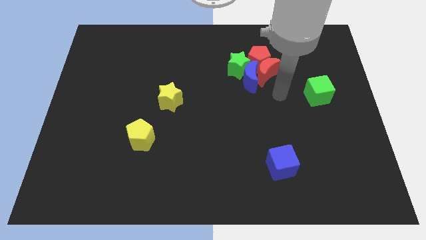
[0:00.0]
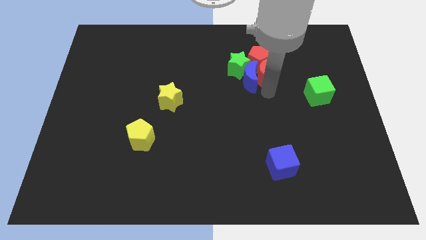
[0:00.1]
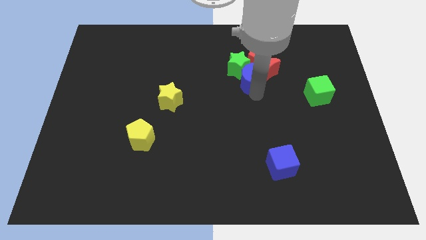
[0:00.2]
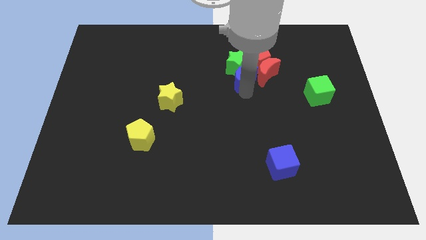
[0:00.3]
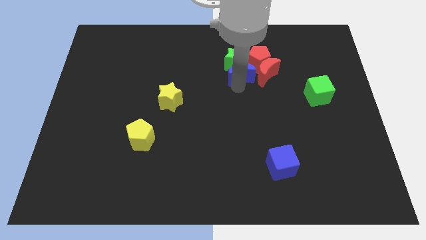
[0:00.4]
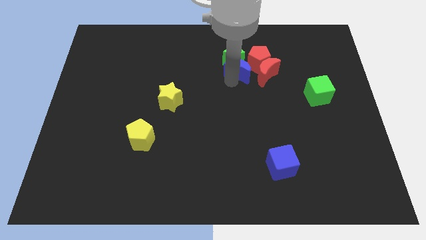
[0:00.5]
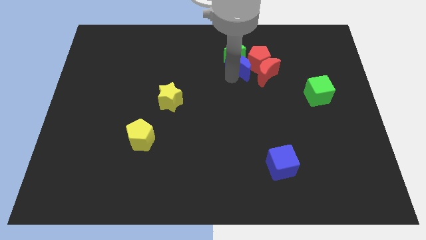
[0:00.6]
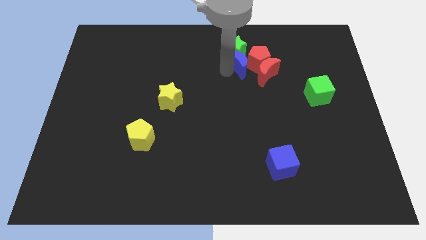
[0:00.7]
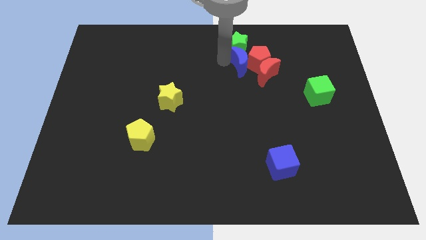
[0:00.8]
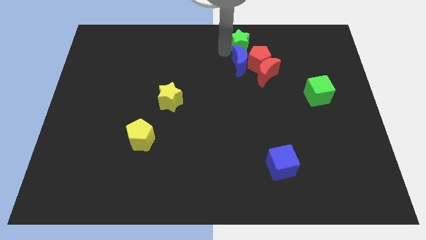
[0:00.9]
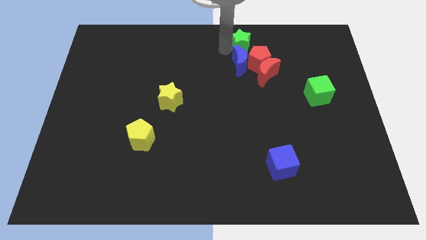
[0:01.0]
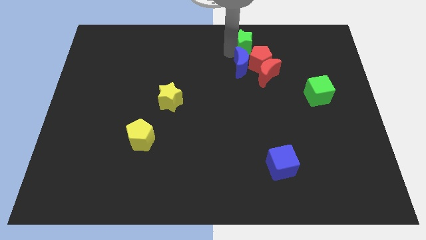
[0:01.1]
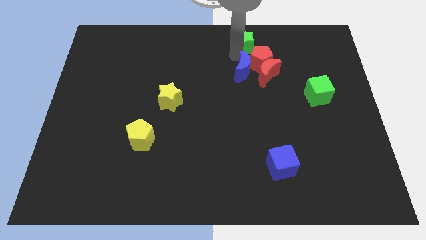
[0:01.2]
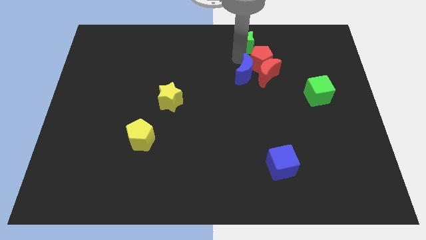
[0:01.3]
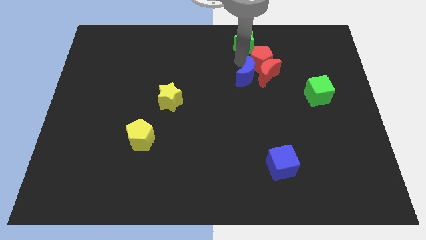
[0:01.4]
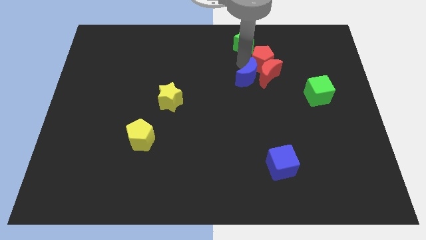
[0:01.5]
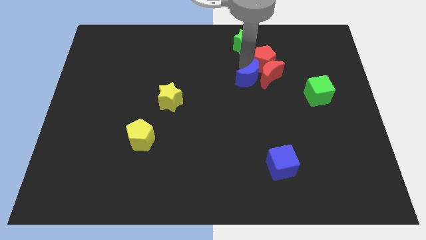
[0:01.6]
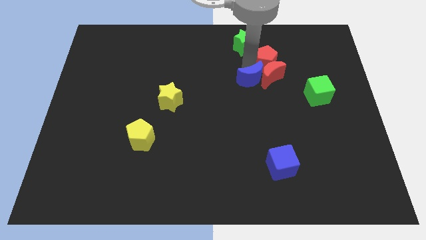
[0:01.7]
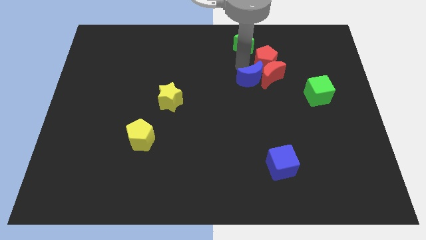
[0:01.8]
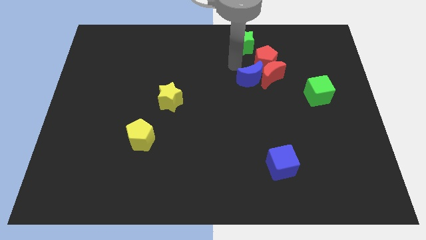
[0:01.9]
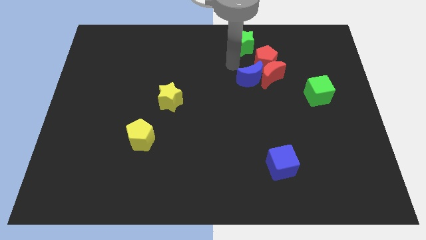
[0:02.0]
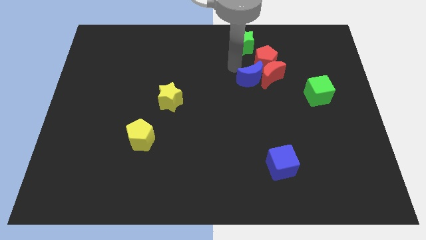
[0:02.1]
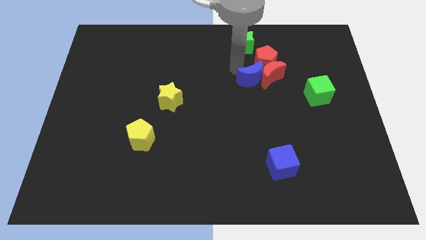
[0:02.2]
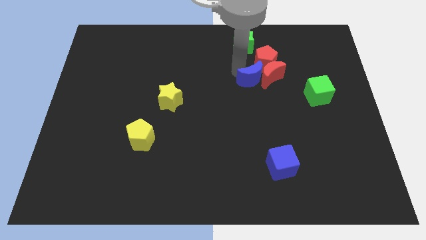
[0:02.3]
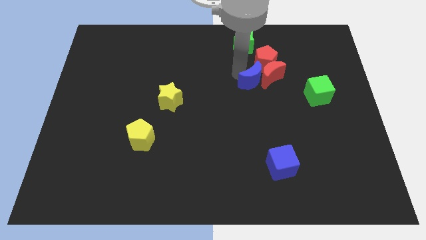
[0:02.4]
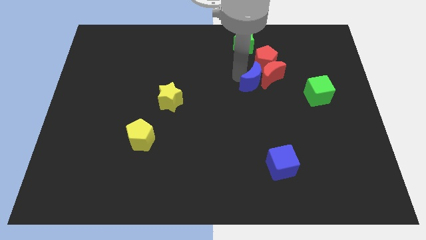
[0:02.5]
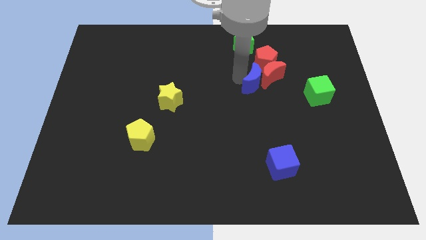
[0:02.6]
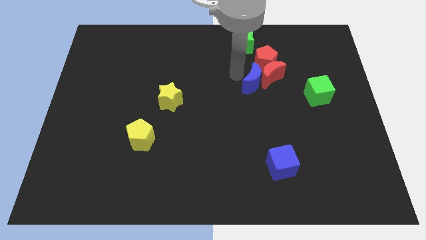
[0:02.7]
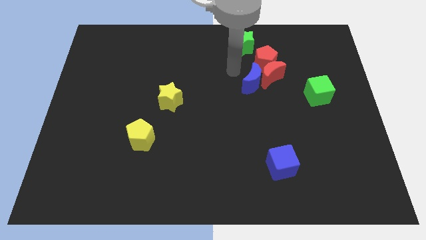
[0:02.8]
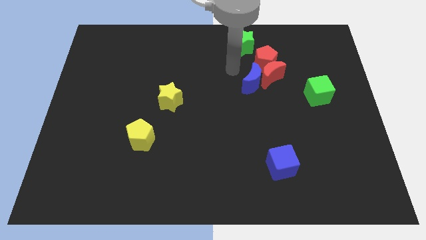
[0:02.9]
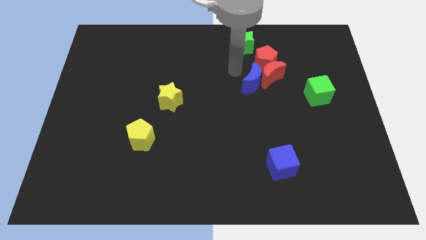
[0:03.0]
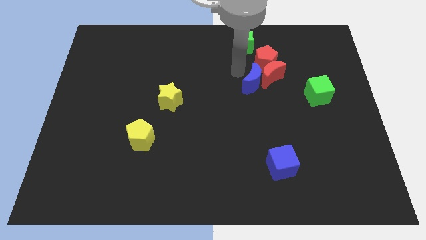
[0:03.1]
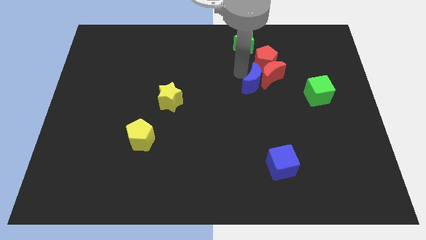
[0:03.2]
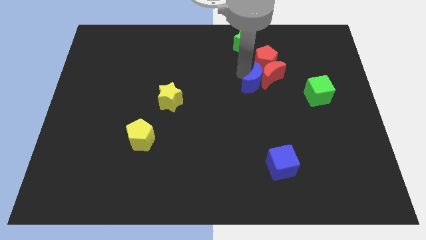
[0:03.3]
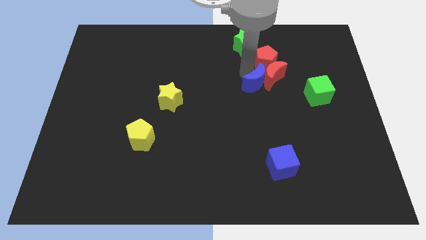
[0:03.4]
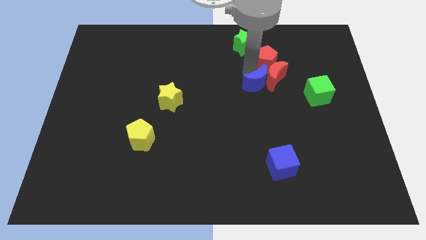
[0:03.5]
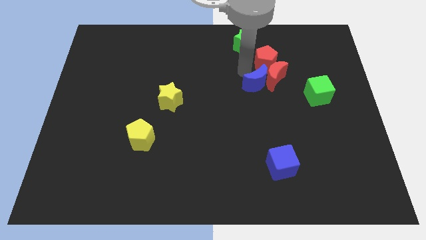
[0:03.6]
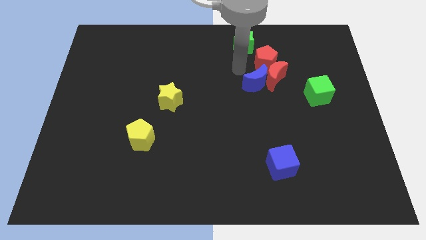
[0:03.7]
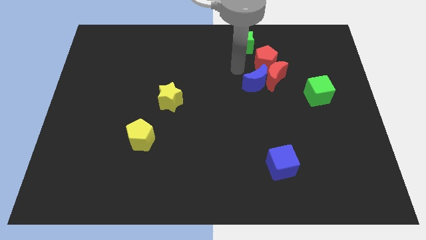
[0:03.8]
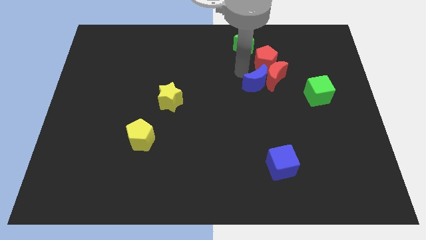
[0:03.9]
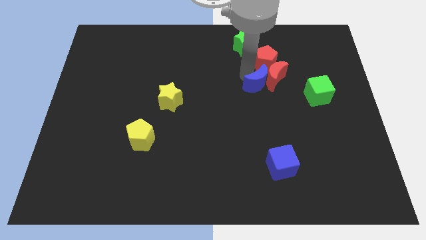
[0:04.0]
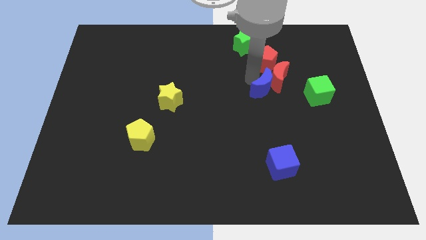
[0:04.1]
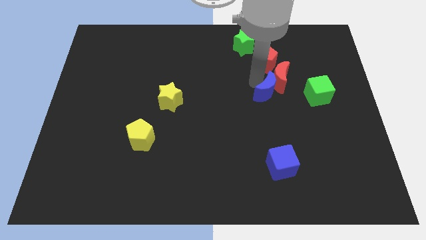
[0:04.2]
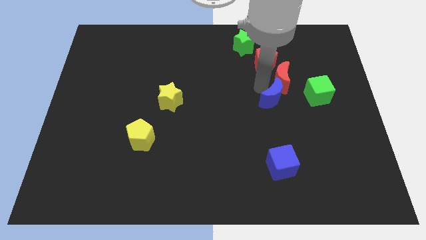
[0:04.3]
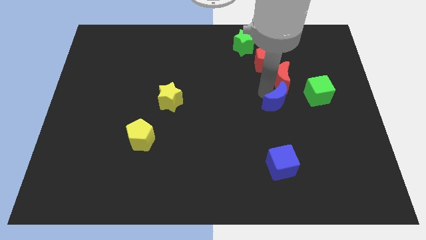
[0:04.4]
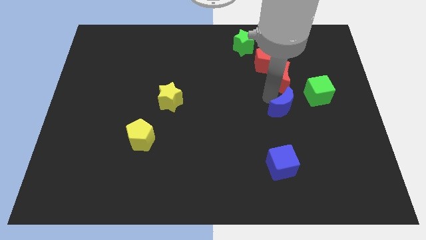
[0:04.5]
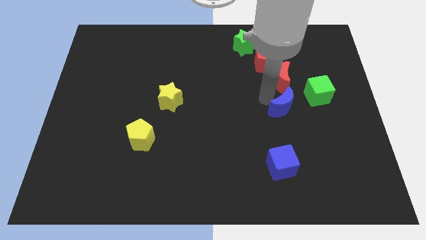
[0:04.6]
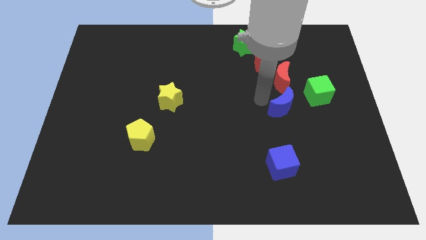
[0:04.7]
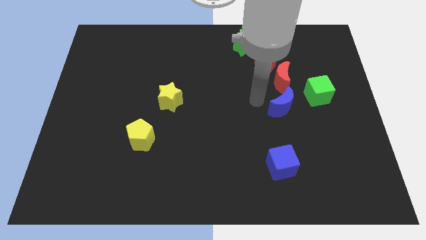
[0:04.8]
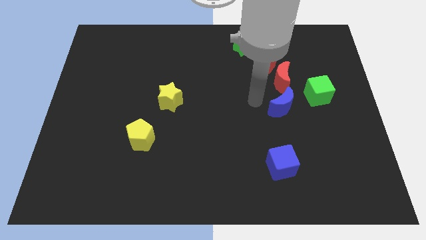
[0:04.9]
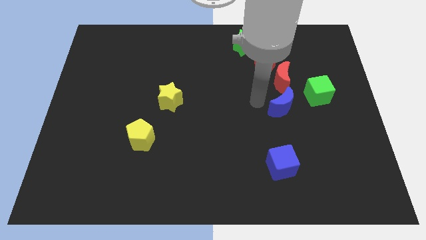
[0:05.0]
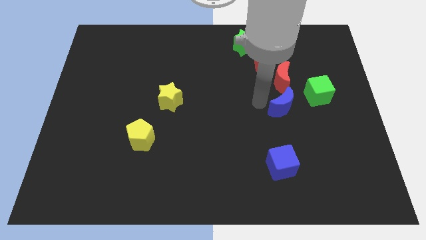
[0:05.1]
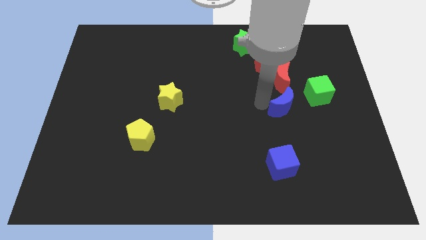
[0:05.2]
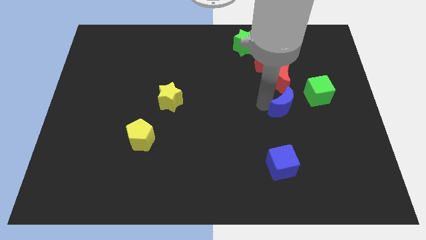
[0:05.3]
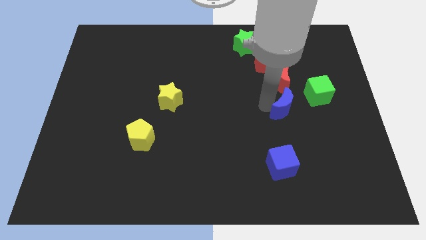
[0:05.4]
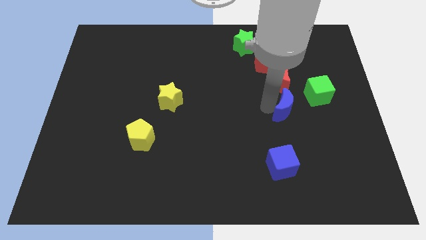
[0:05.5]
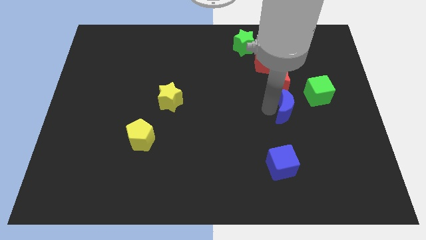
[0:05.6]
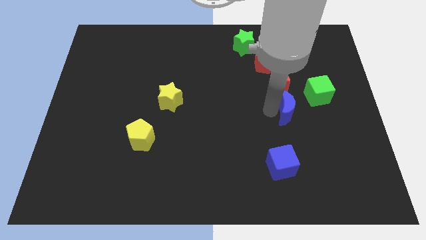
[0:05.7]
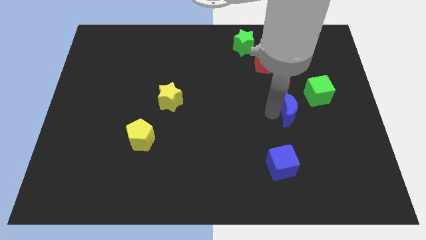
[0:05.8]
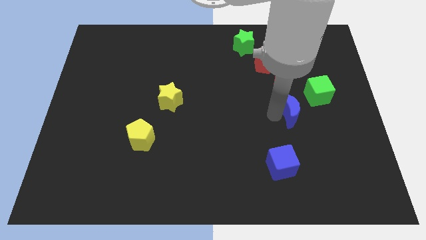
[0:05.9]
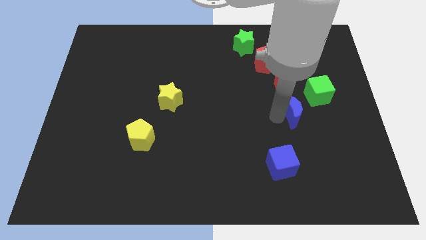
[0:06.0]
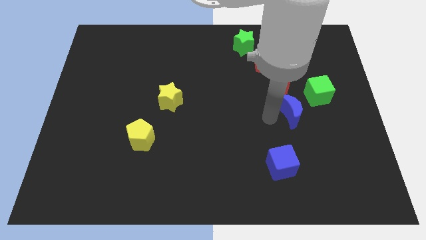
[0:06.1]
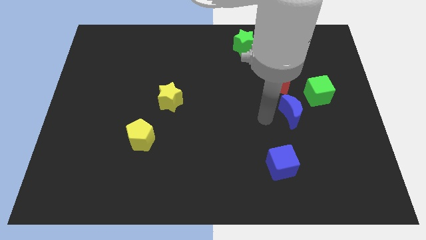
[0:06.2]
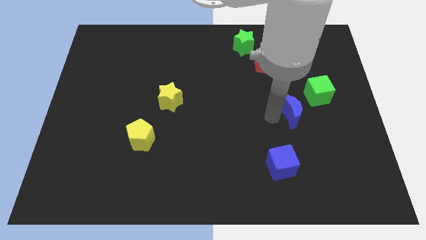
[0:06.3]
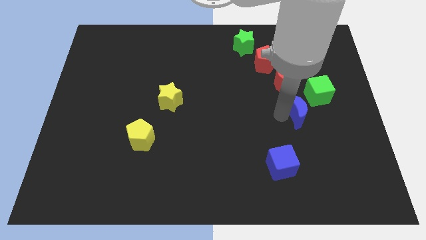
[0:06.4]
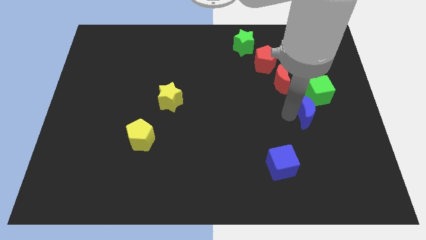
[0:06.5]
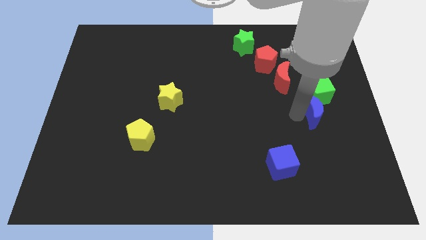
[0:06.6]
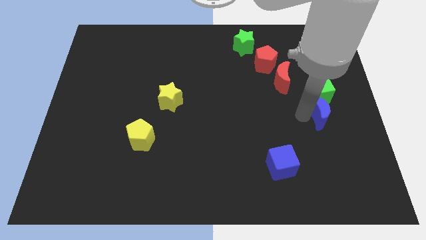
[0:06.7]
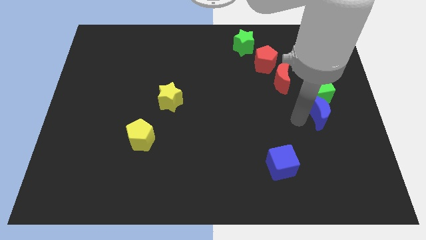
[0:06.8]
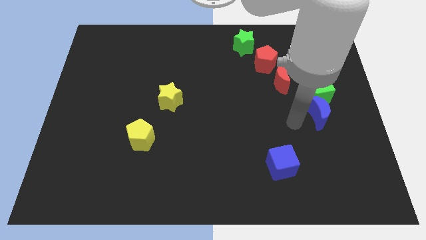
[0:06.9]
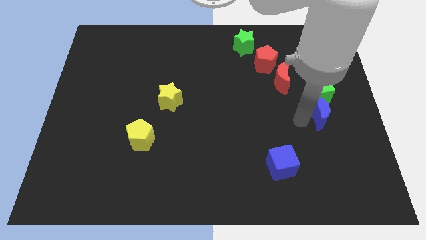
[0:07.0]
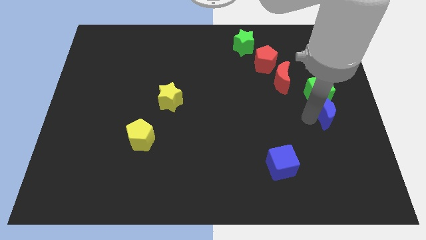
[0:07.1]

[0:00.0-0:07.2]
put the blue moon to the center right

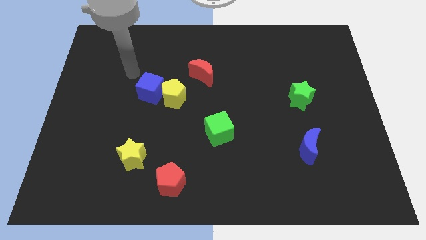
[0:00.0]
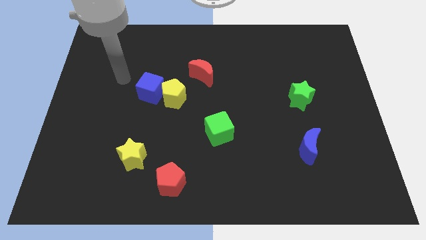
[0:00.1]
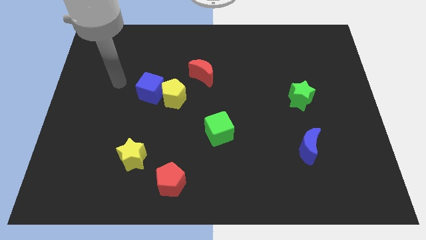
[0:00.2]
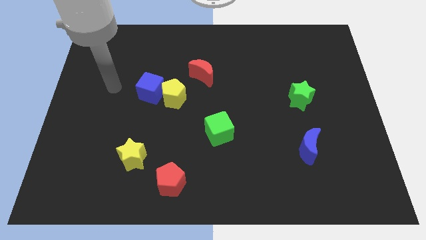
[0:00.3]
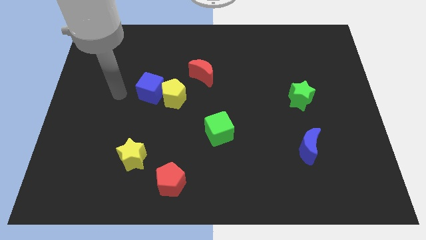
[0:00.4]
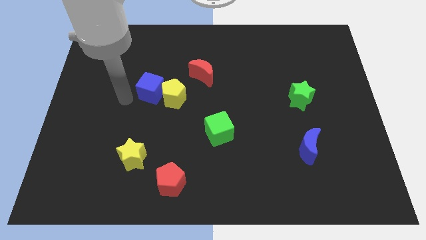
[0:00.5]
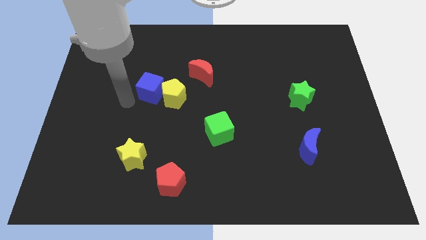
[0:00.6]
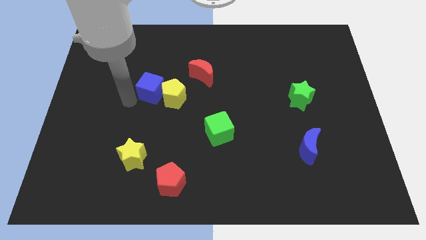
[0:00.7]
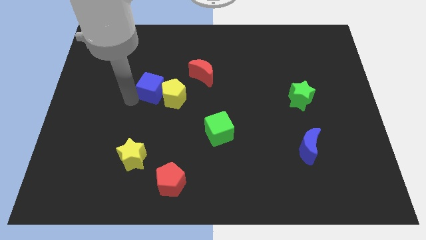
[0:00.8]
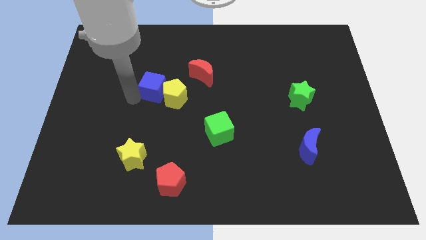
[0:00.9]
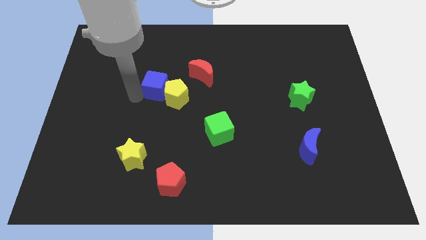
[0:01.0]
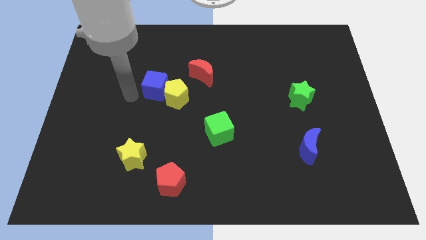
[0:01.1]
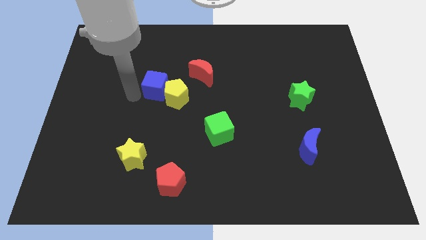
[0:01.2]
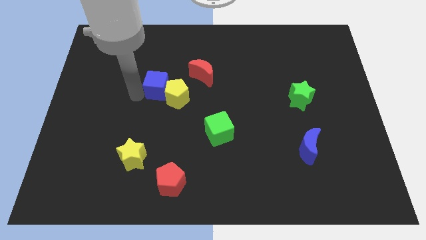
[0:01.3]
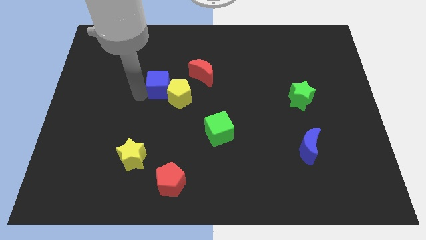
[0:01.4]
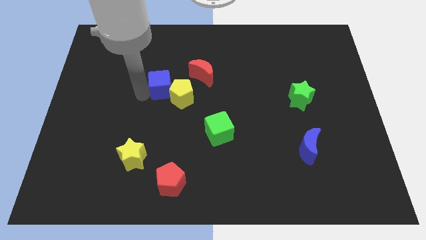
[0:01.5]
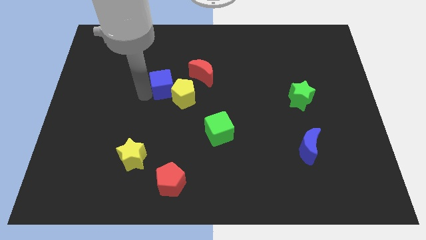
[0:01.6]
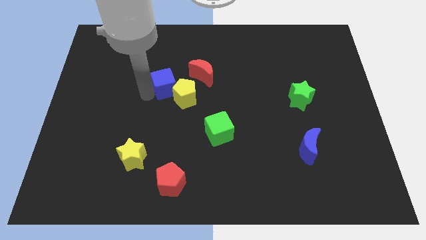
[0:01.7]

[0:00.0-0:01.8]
slide the blue cube to the middle
